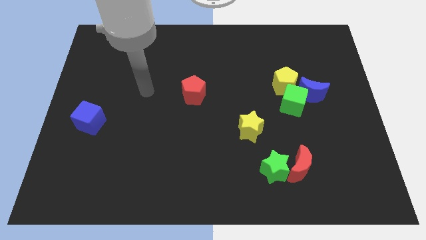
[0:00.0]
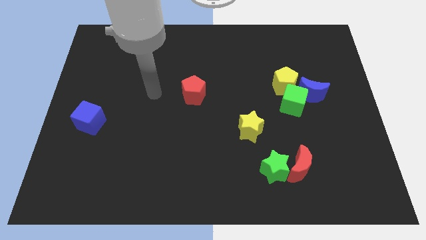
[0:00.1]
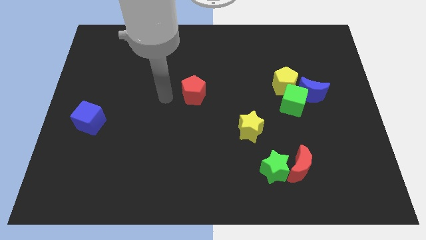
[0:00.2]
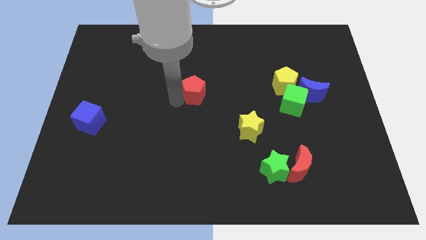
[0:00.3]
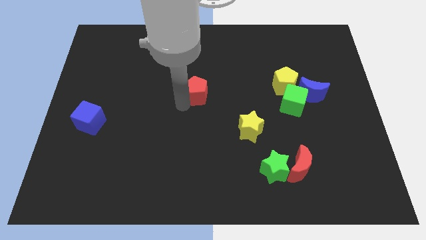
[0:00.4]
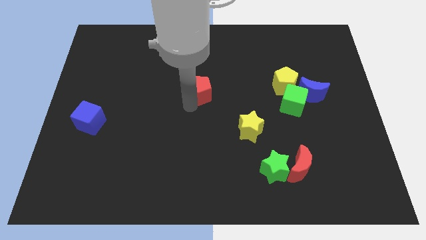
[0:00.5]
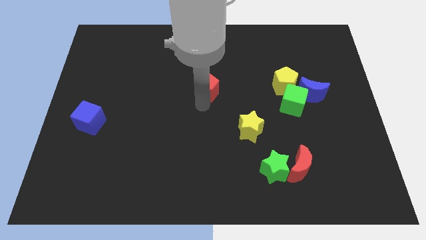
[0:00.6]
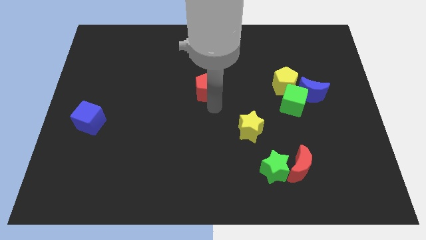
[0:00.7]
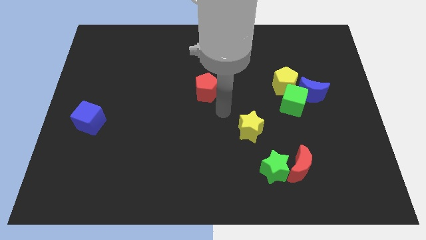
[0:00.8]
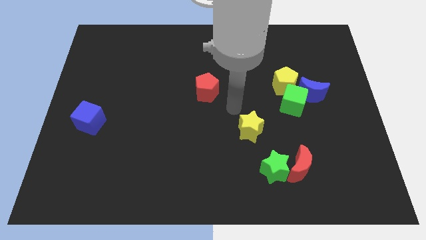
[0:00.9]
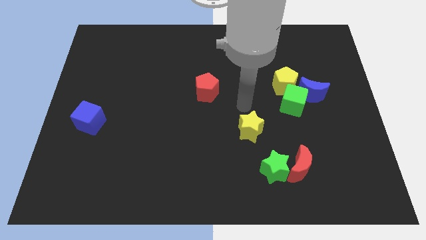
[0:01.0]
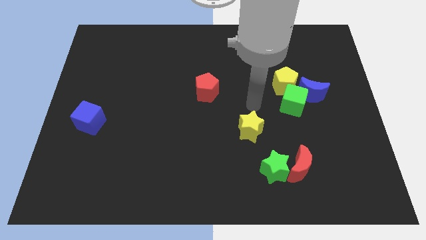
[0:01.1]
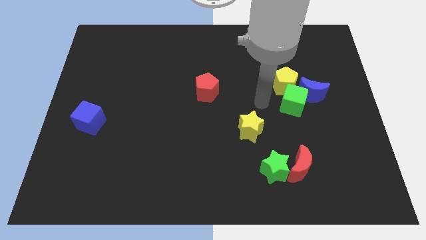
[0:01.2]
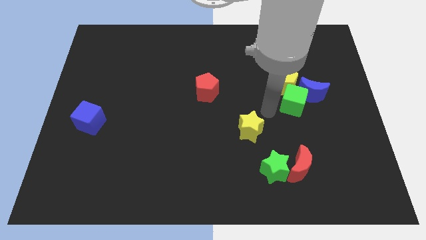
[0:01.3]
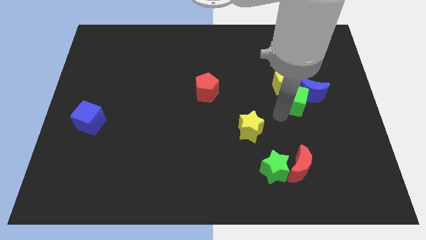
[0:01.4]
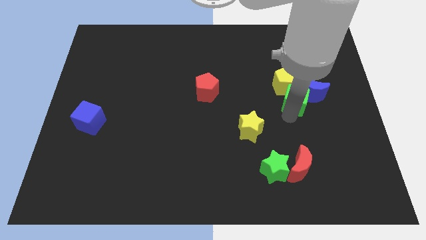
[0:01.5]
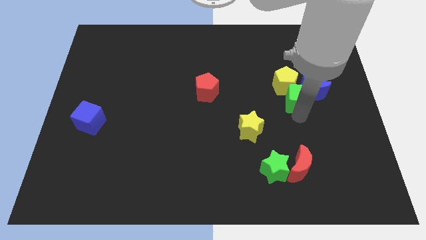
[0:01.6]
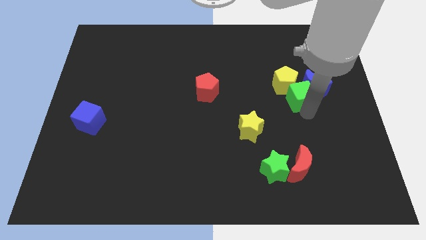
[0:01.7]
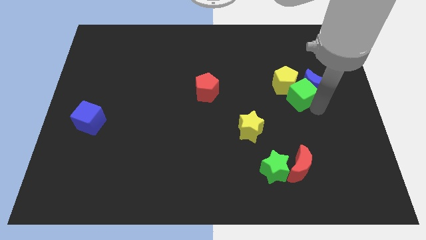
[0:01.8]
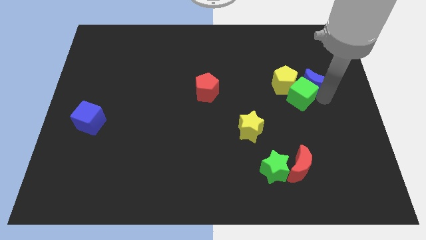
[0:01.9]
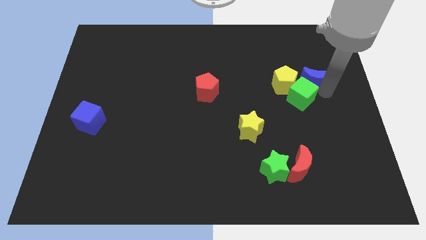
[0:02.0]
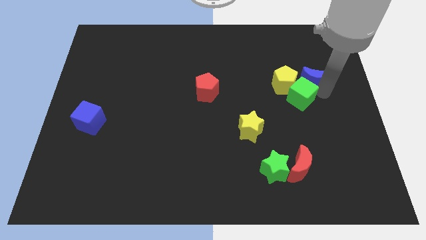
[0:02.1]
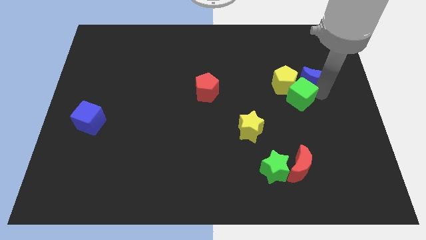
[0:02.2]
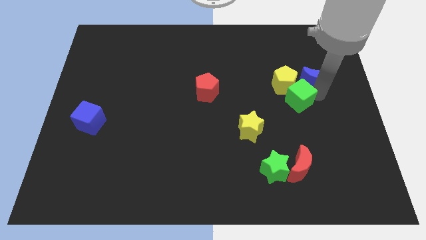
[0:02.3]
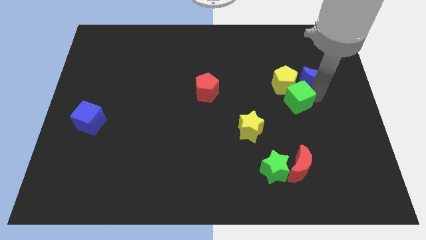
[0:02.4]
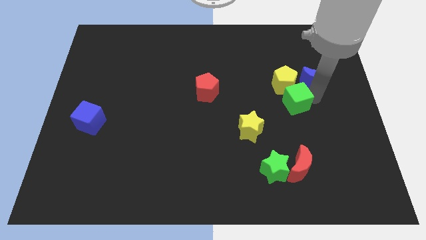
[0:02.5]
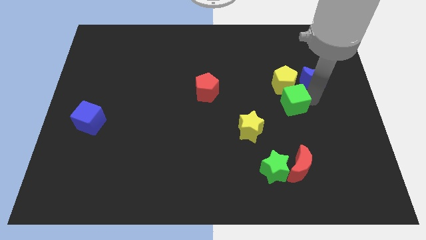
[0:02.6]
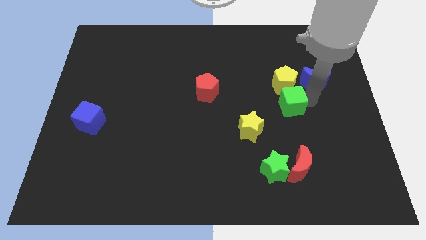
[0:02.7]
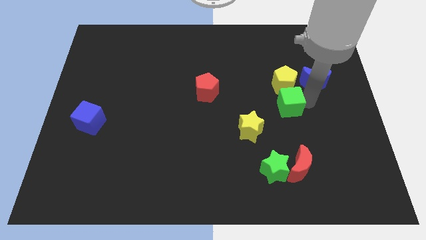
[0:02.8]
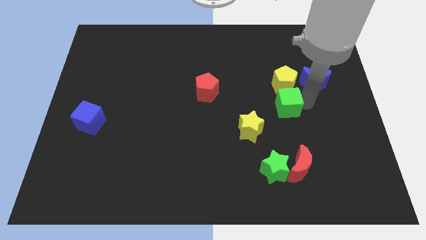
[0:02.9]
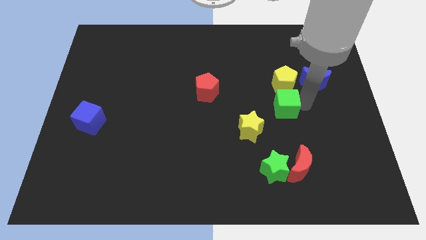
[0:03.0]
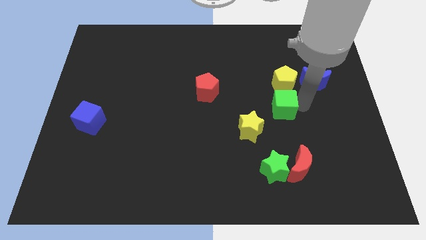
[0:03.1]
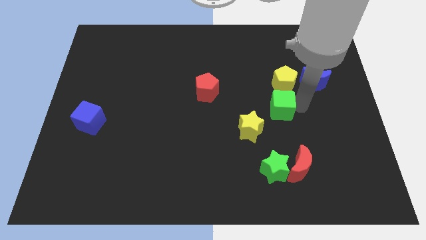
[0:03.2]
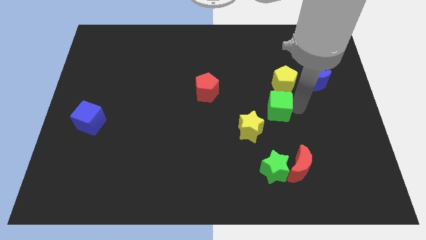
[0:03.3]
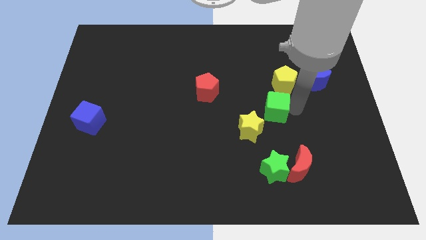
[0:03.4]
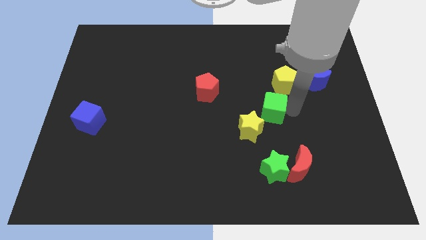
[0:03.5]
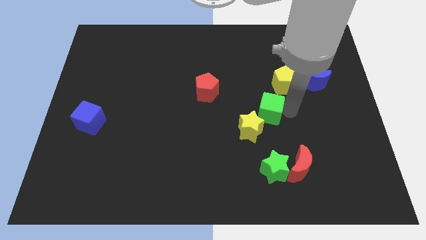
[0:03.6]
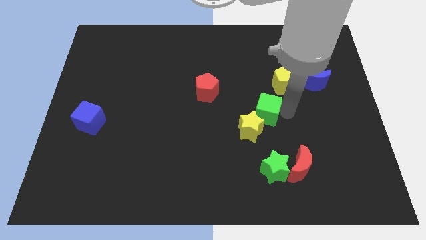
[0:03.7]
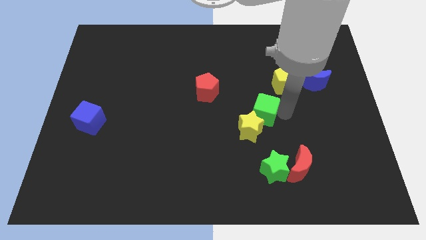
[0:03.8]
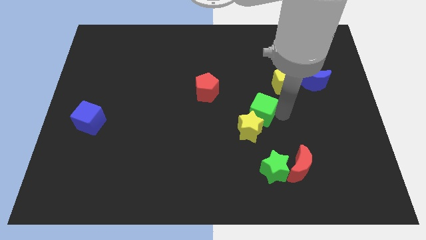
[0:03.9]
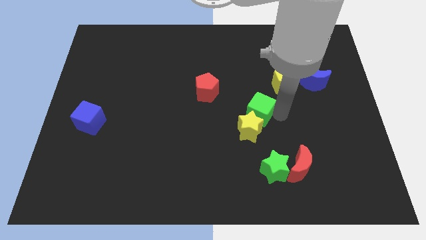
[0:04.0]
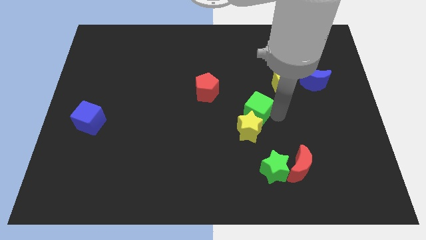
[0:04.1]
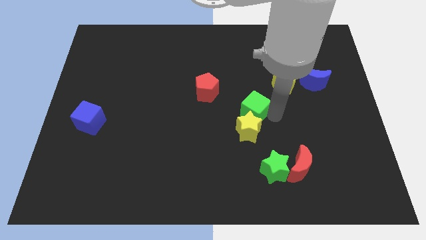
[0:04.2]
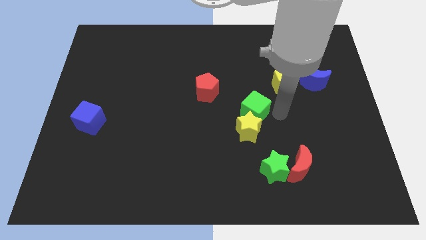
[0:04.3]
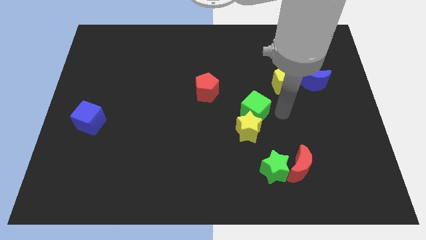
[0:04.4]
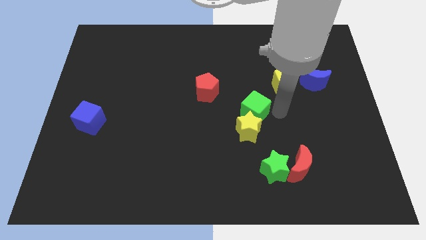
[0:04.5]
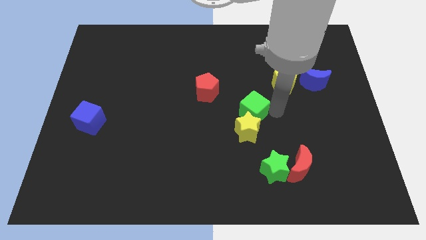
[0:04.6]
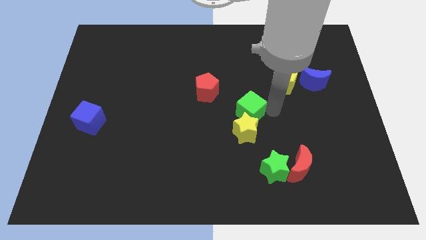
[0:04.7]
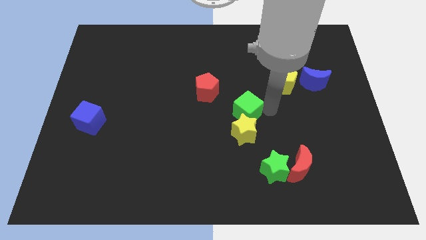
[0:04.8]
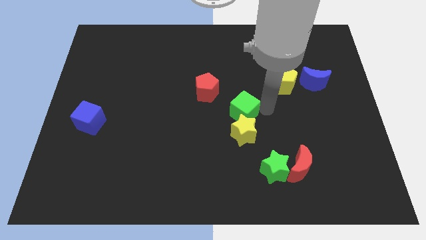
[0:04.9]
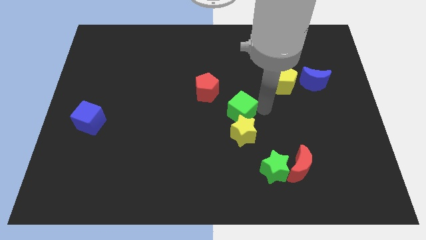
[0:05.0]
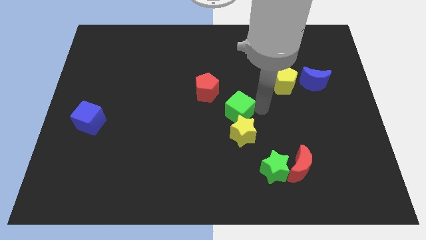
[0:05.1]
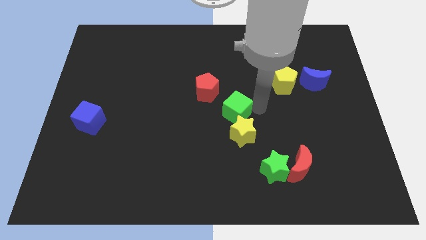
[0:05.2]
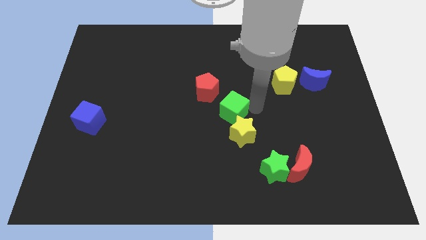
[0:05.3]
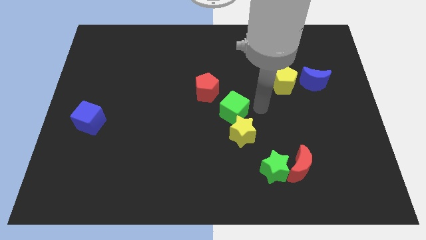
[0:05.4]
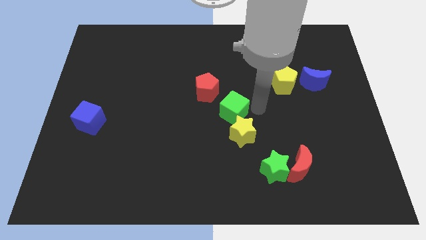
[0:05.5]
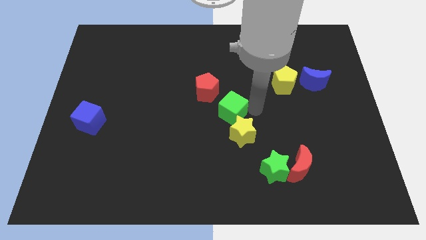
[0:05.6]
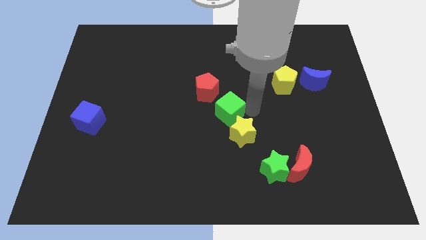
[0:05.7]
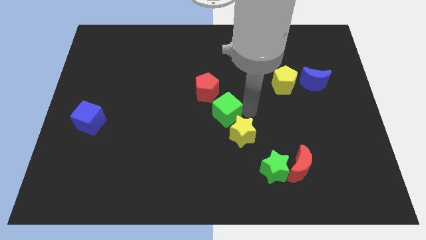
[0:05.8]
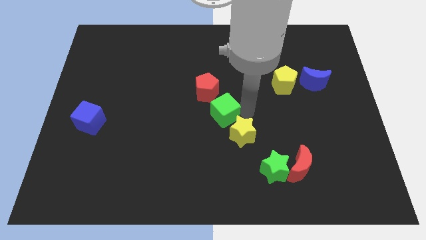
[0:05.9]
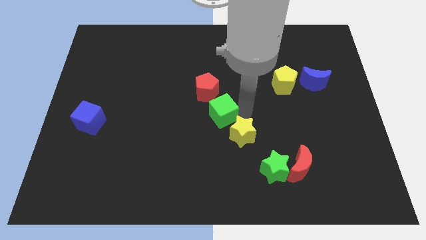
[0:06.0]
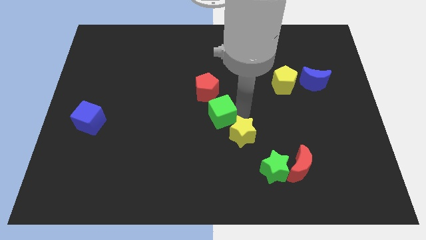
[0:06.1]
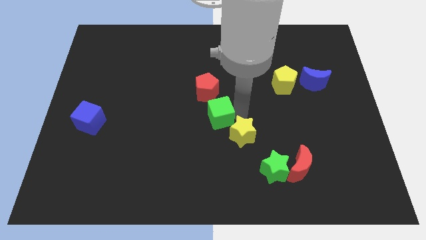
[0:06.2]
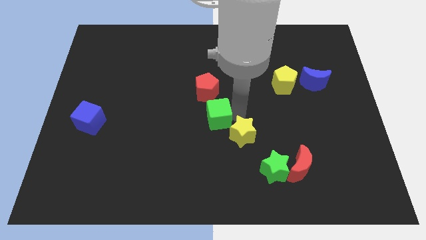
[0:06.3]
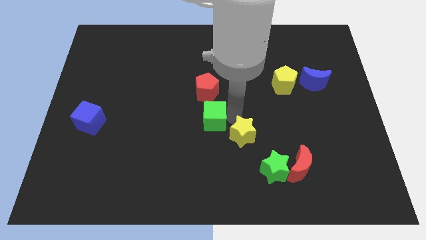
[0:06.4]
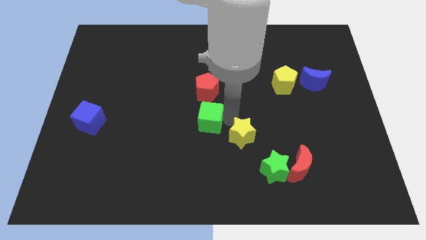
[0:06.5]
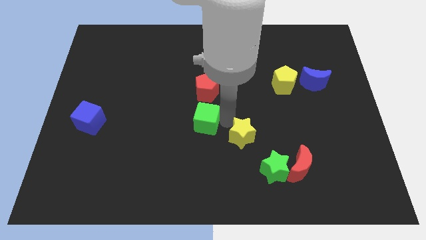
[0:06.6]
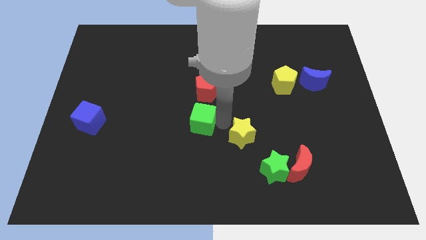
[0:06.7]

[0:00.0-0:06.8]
slide the green cube left

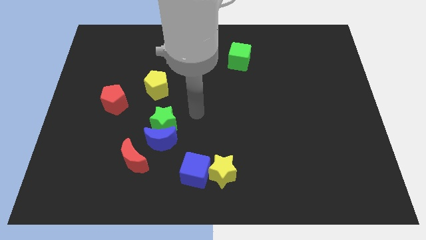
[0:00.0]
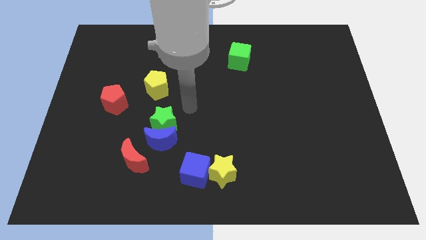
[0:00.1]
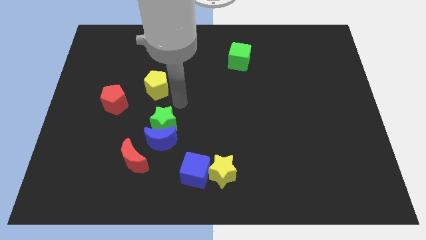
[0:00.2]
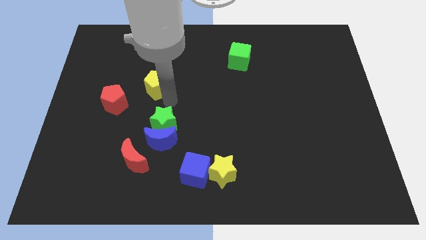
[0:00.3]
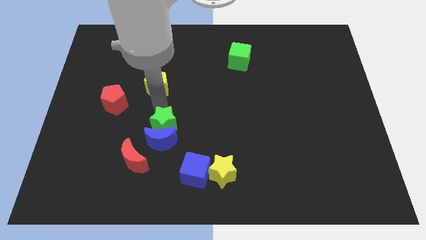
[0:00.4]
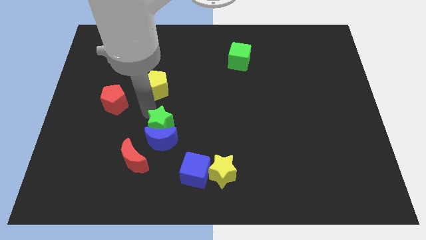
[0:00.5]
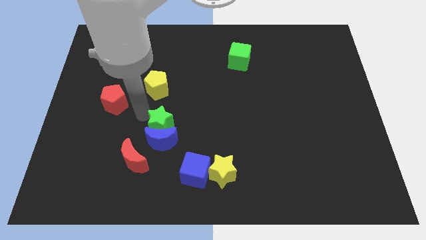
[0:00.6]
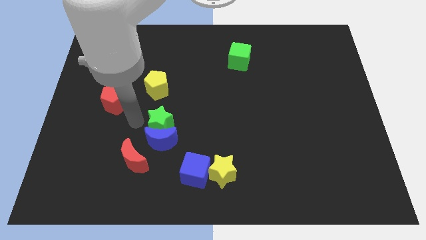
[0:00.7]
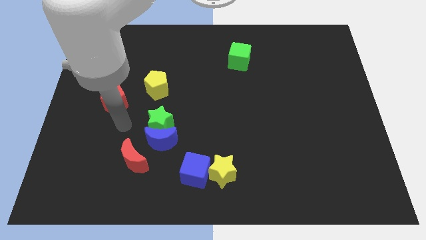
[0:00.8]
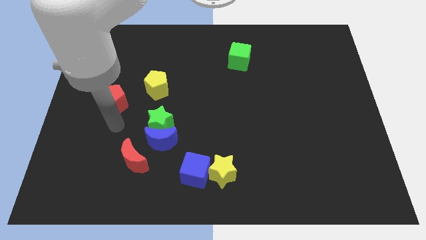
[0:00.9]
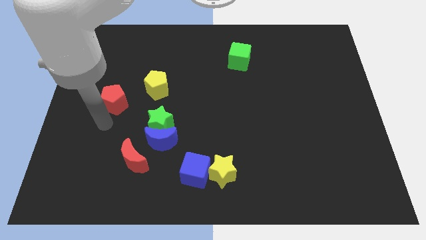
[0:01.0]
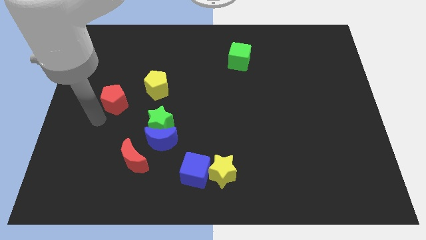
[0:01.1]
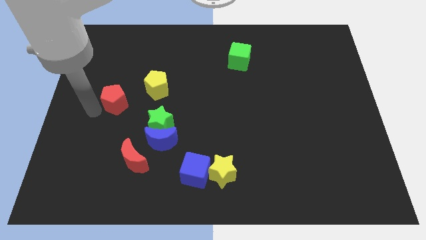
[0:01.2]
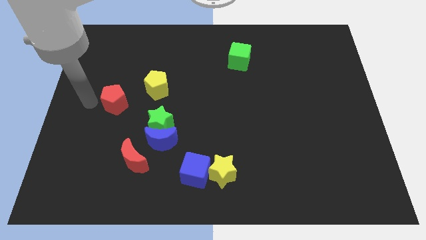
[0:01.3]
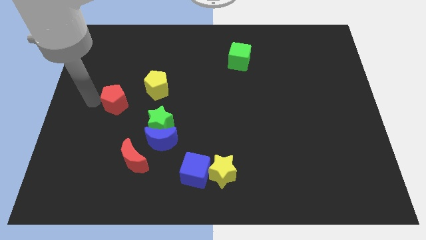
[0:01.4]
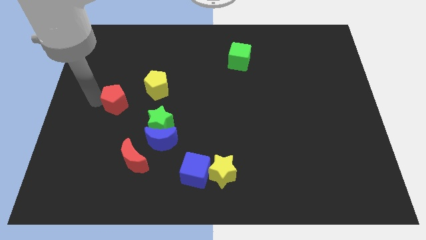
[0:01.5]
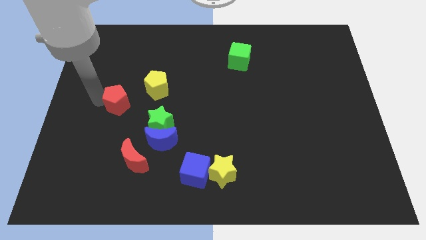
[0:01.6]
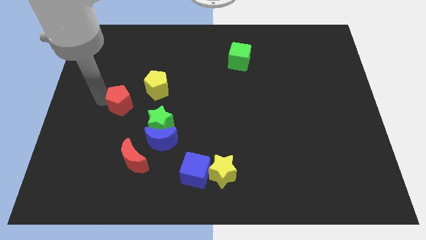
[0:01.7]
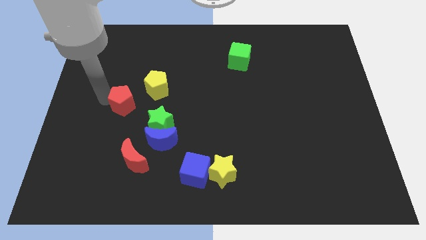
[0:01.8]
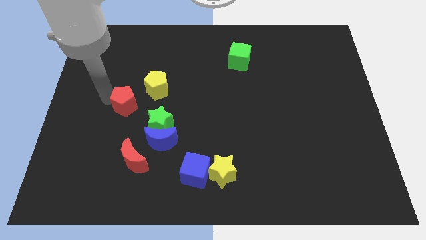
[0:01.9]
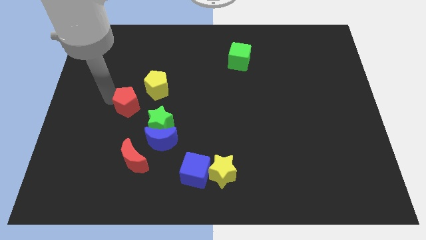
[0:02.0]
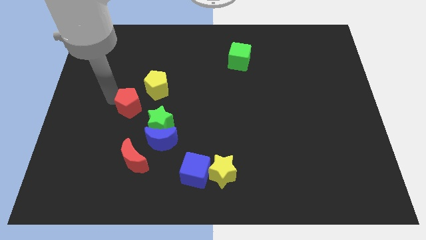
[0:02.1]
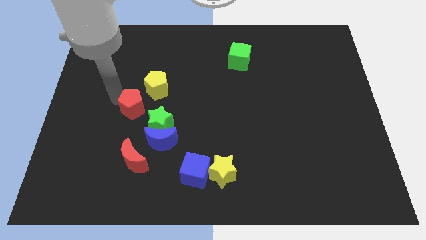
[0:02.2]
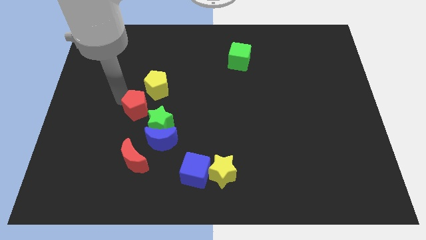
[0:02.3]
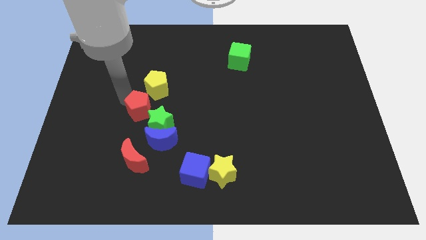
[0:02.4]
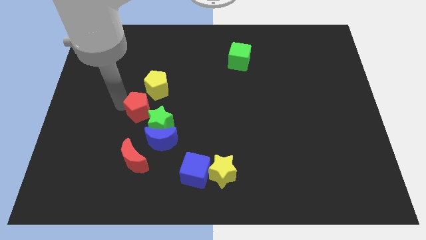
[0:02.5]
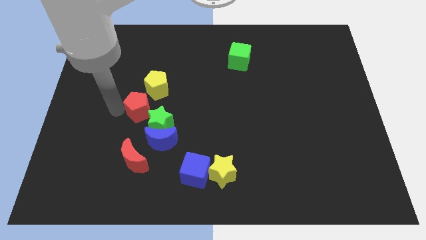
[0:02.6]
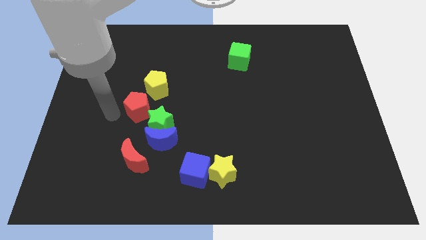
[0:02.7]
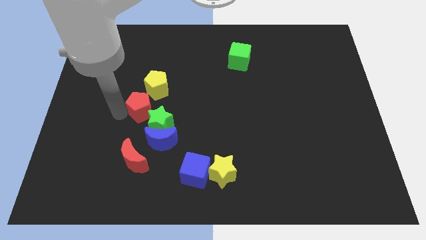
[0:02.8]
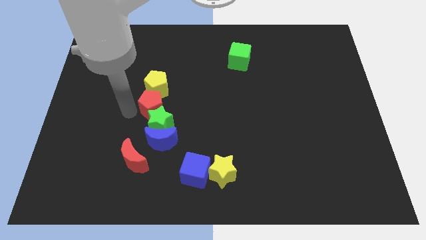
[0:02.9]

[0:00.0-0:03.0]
push the red pentagon a little to the right
